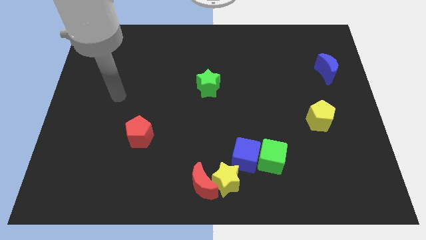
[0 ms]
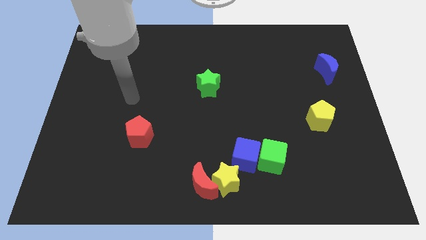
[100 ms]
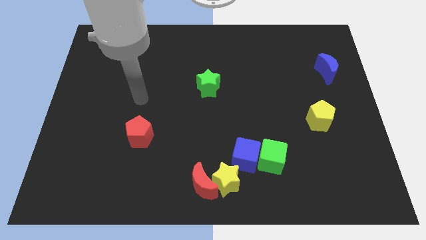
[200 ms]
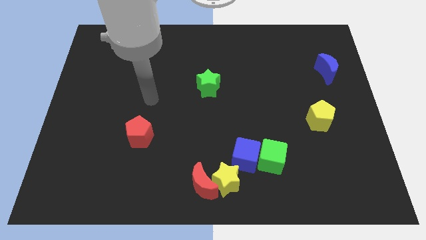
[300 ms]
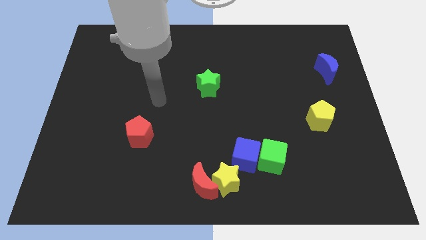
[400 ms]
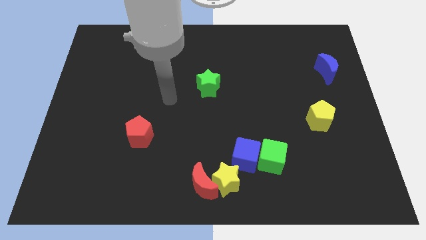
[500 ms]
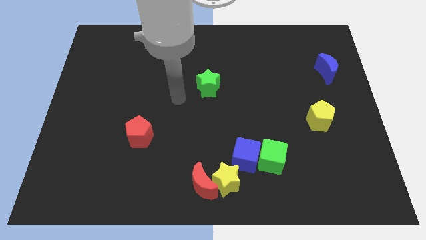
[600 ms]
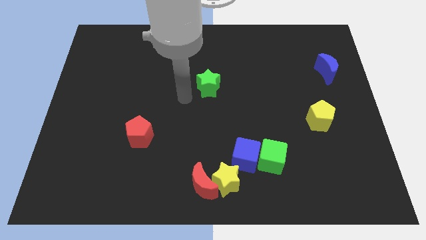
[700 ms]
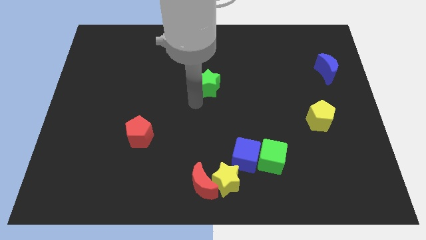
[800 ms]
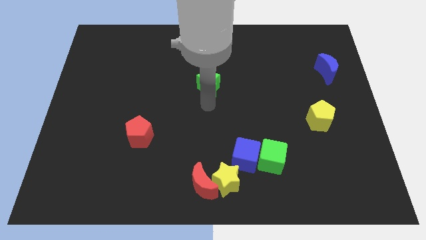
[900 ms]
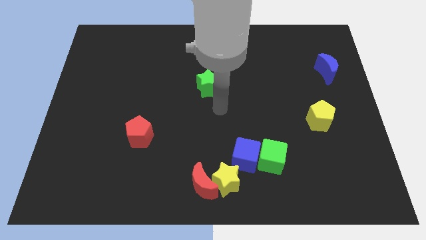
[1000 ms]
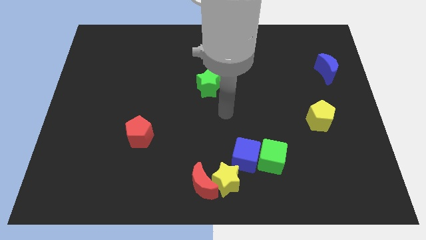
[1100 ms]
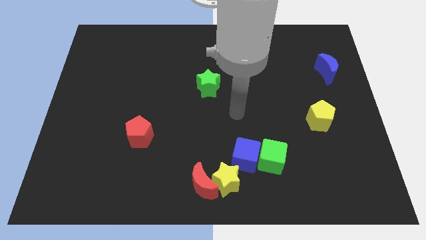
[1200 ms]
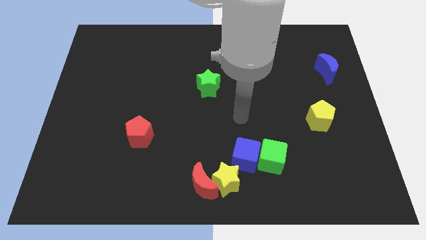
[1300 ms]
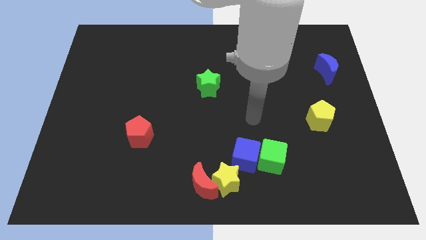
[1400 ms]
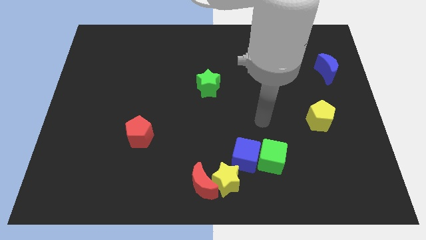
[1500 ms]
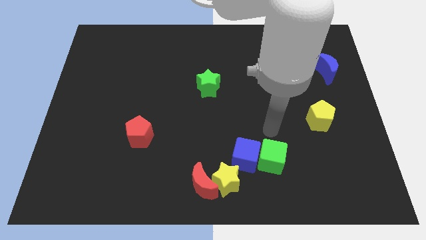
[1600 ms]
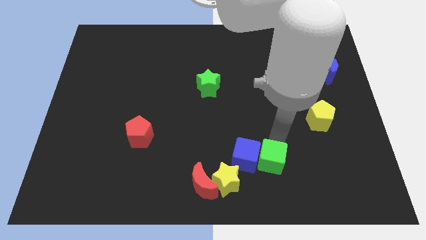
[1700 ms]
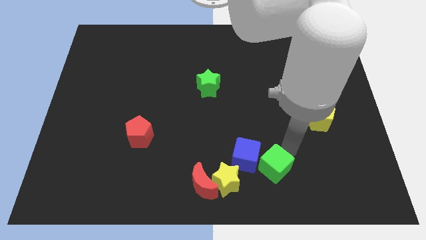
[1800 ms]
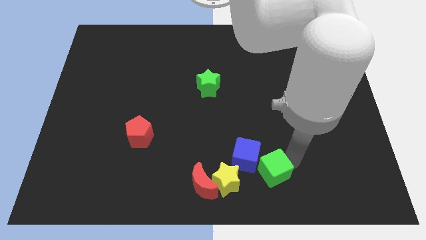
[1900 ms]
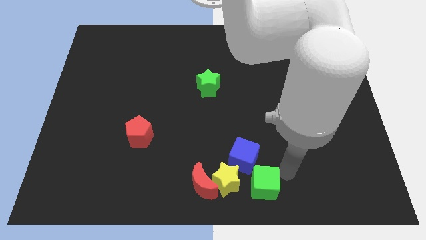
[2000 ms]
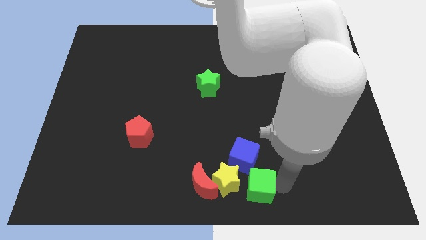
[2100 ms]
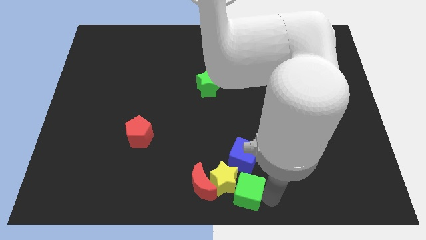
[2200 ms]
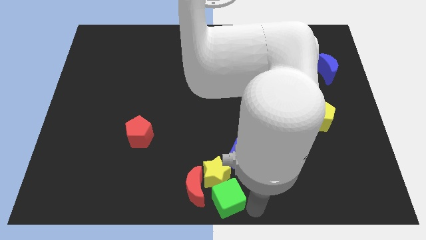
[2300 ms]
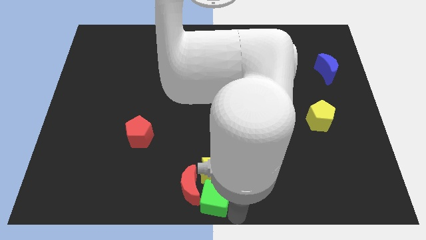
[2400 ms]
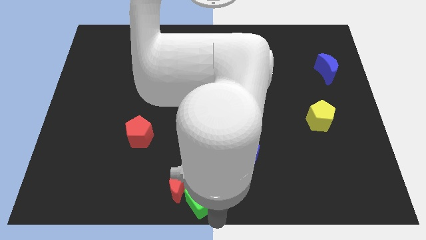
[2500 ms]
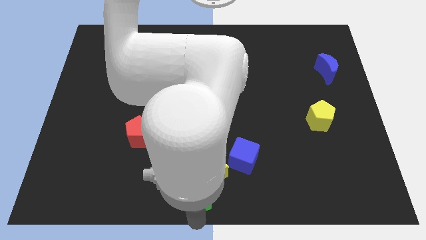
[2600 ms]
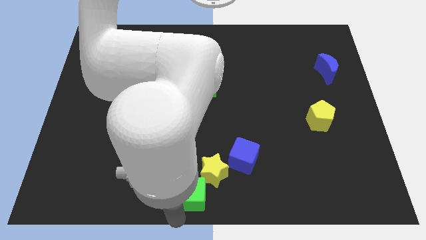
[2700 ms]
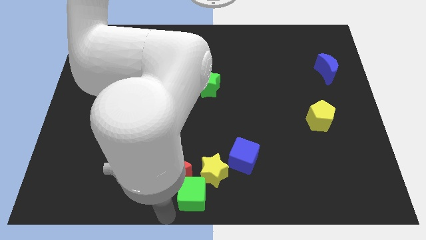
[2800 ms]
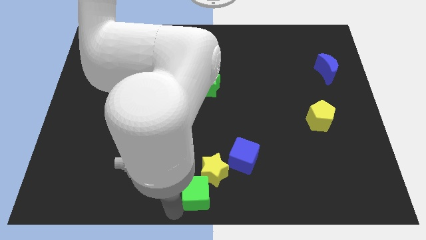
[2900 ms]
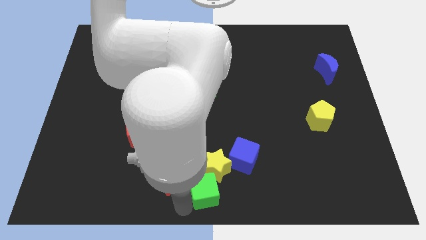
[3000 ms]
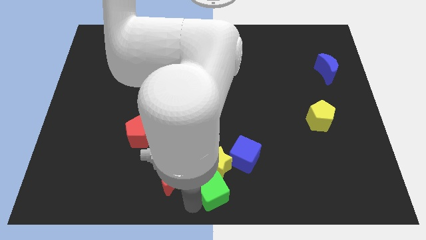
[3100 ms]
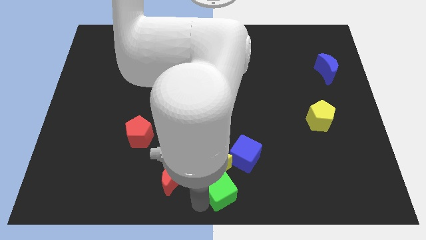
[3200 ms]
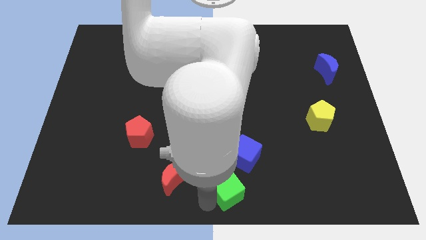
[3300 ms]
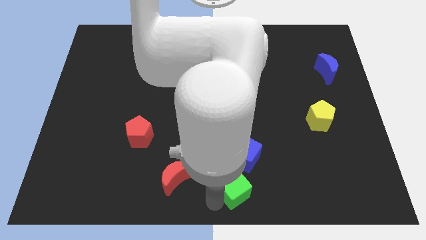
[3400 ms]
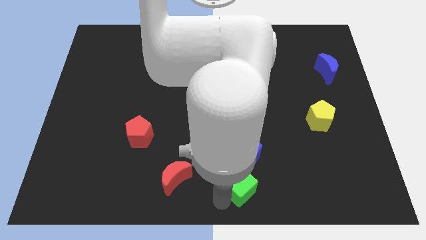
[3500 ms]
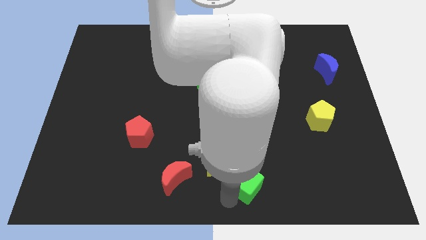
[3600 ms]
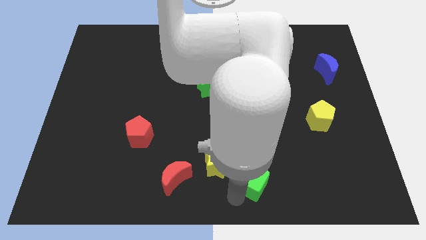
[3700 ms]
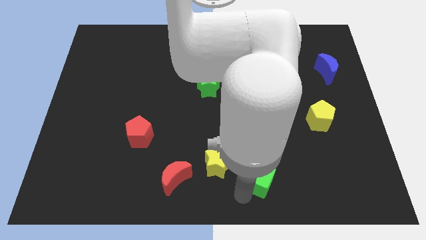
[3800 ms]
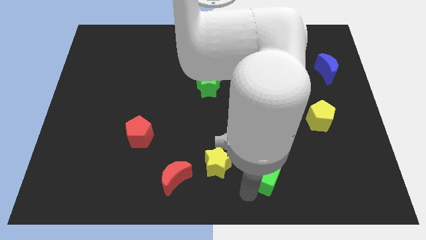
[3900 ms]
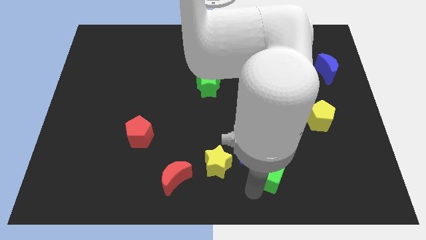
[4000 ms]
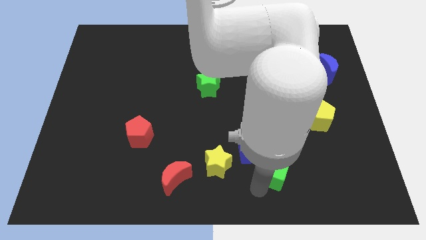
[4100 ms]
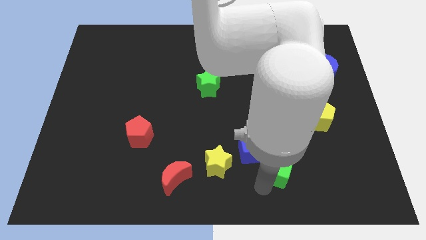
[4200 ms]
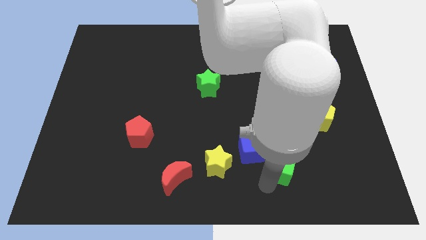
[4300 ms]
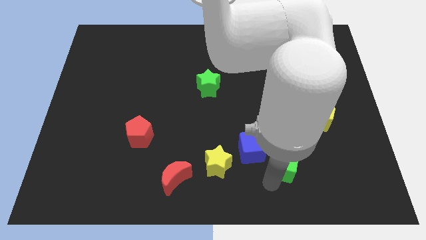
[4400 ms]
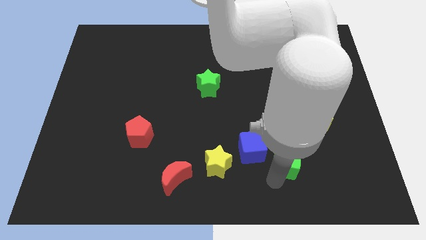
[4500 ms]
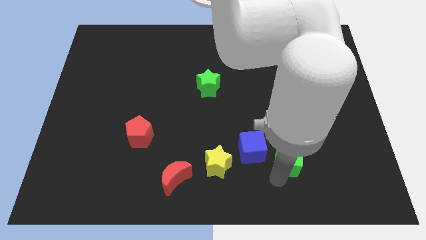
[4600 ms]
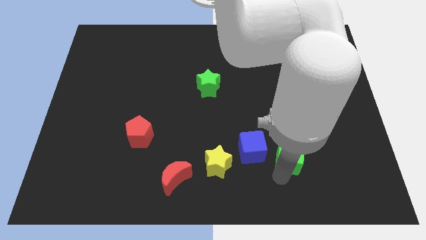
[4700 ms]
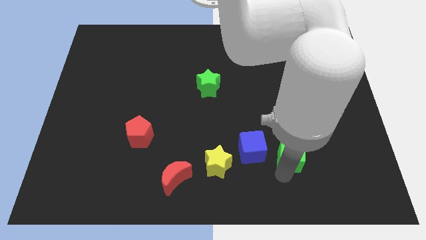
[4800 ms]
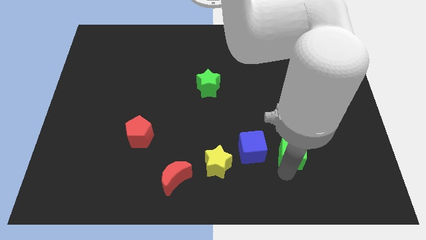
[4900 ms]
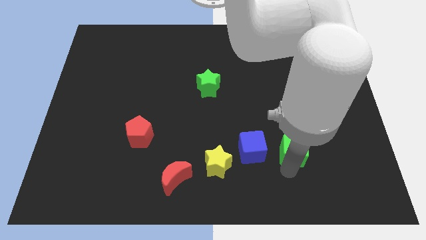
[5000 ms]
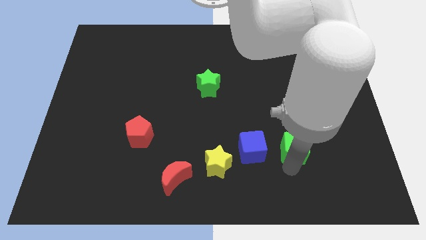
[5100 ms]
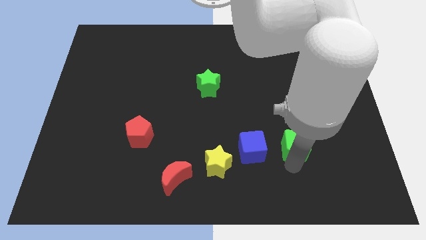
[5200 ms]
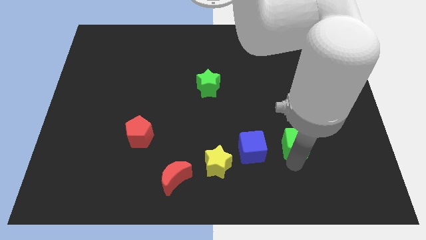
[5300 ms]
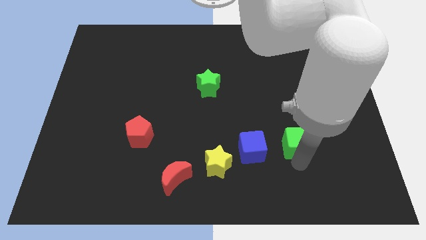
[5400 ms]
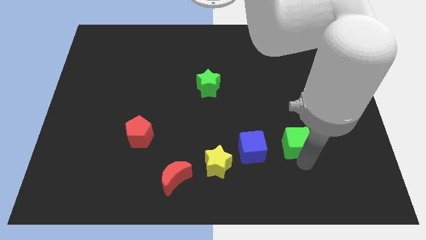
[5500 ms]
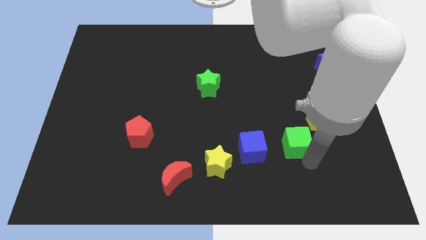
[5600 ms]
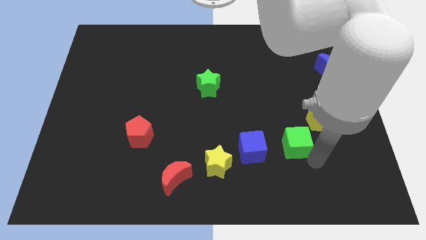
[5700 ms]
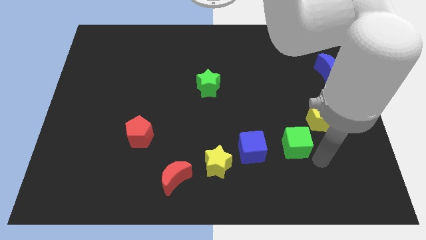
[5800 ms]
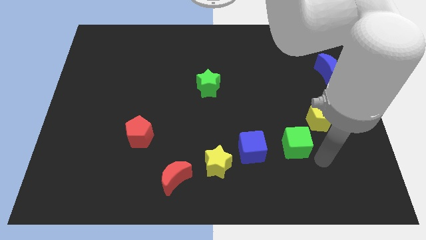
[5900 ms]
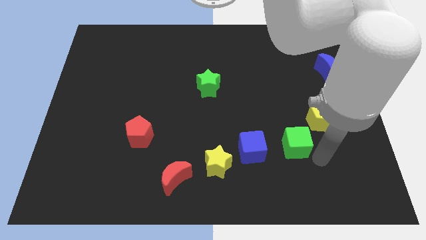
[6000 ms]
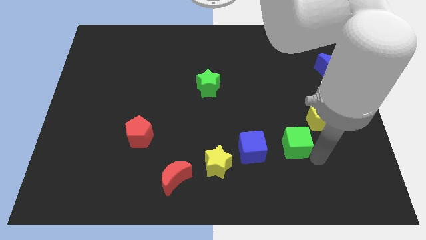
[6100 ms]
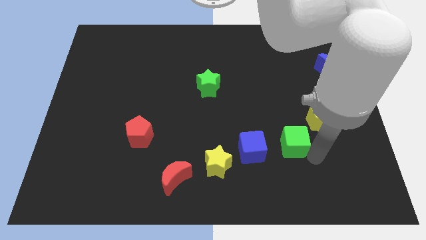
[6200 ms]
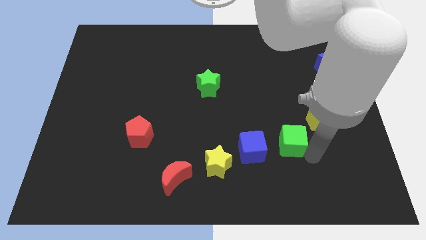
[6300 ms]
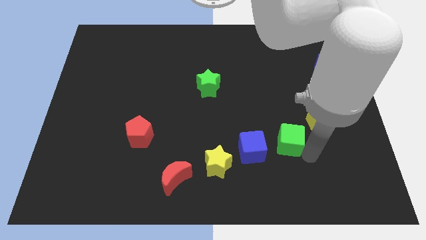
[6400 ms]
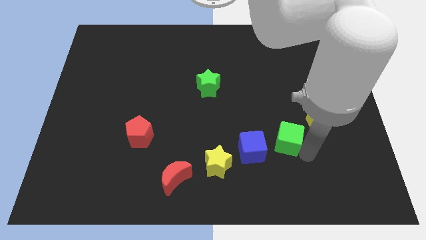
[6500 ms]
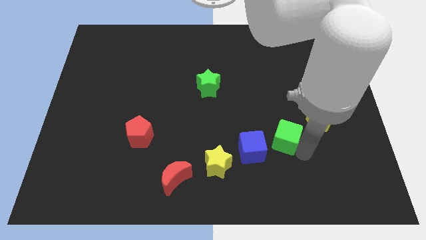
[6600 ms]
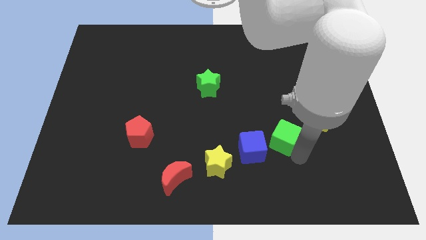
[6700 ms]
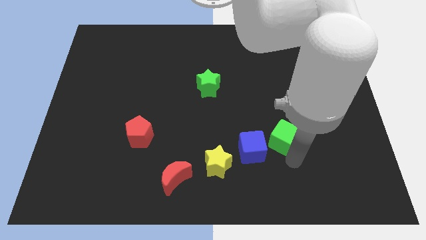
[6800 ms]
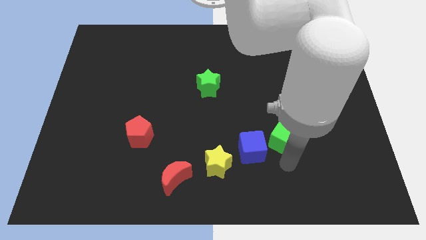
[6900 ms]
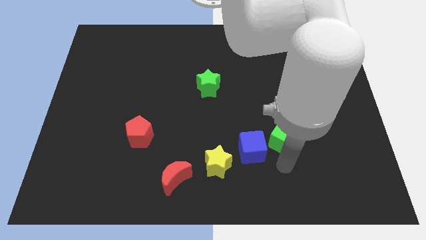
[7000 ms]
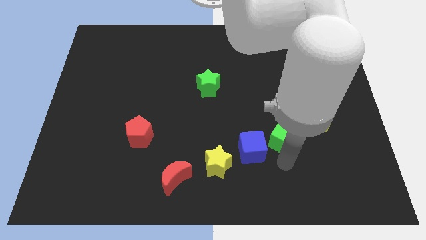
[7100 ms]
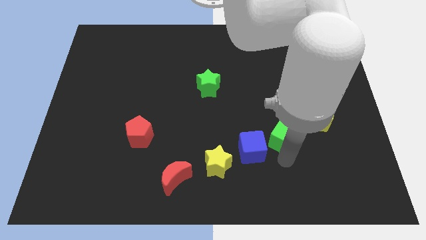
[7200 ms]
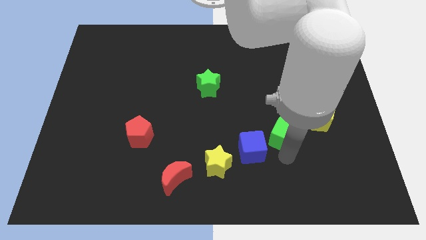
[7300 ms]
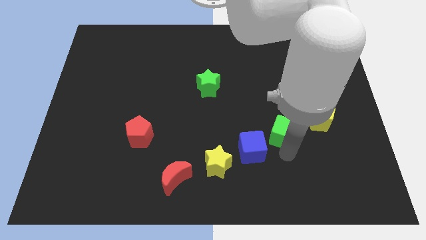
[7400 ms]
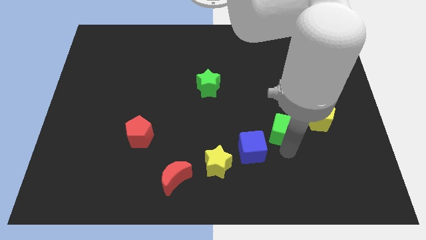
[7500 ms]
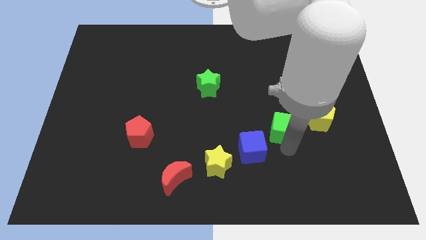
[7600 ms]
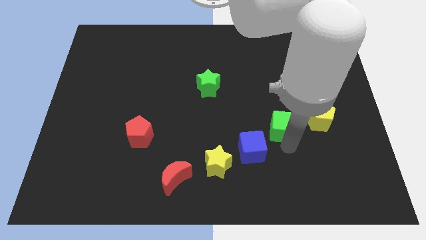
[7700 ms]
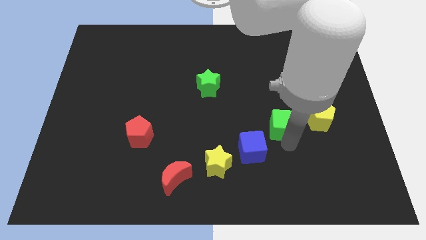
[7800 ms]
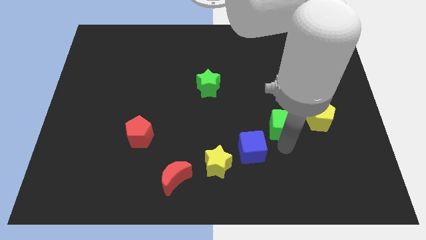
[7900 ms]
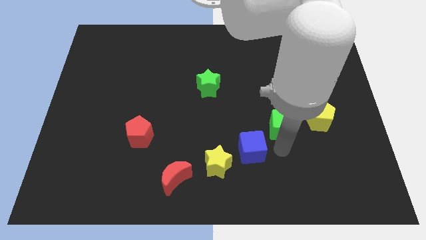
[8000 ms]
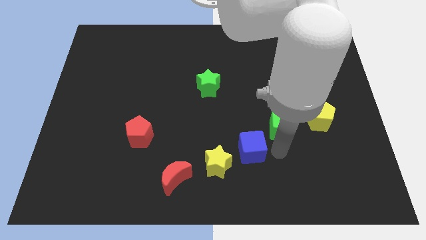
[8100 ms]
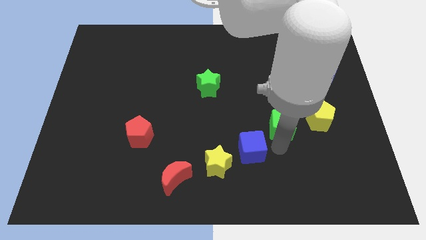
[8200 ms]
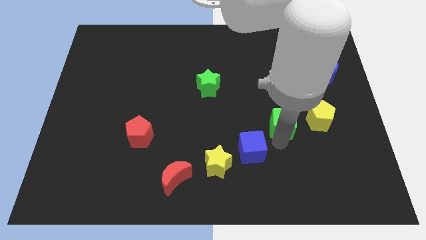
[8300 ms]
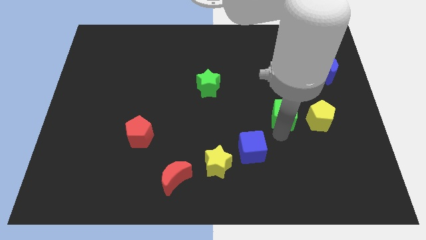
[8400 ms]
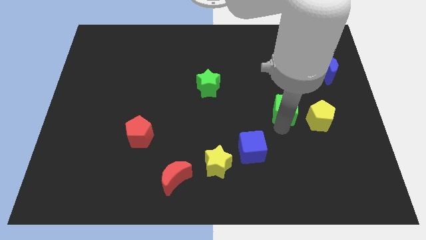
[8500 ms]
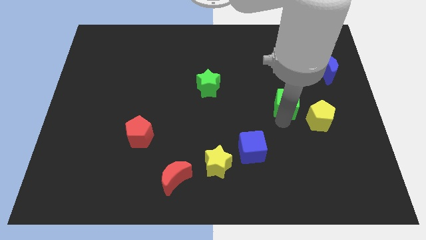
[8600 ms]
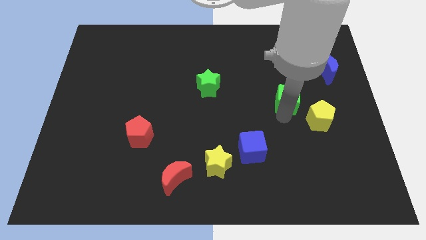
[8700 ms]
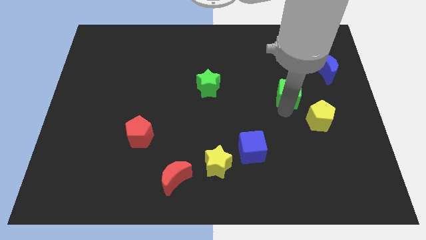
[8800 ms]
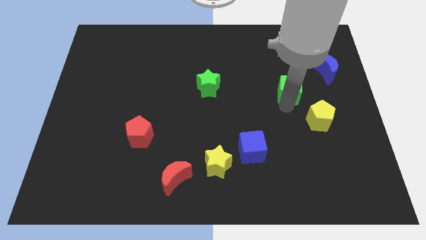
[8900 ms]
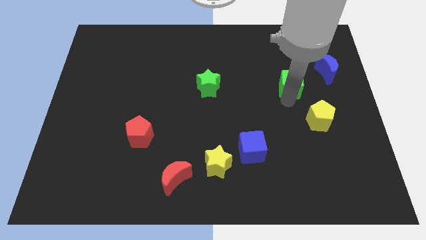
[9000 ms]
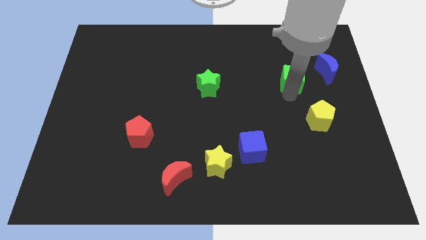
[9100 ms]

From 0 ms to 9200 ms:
move the green cube just left of the blue moon
